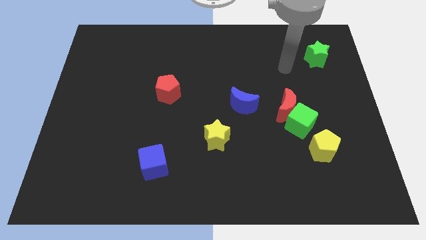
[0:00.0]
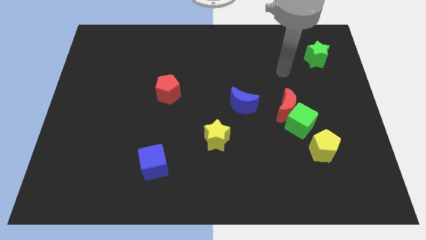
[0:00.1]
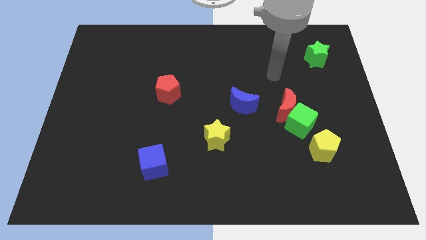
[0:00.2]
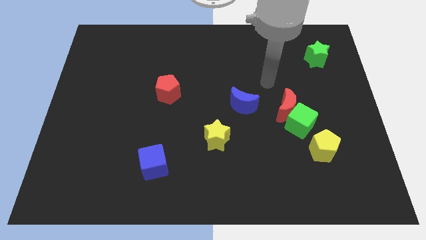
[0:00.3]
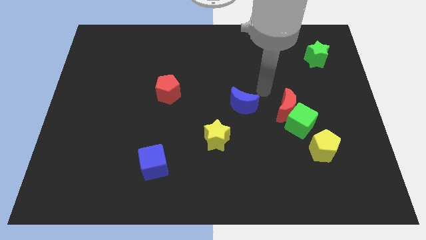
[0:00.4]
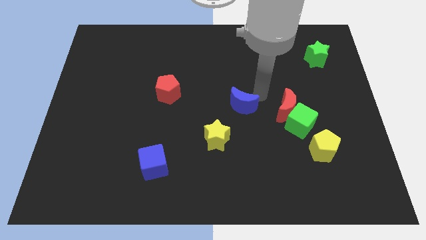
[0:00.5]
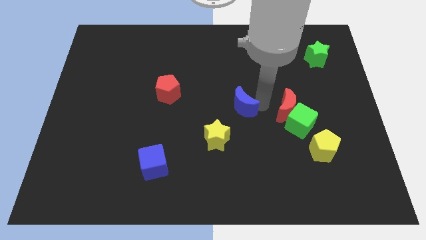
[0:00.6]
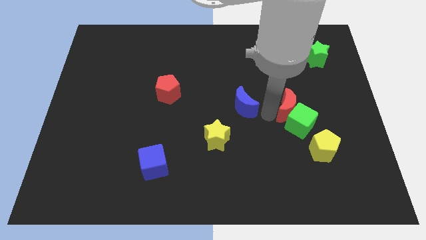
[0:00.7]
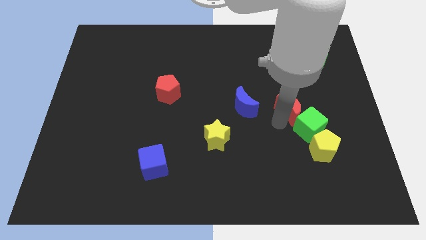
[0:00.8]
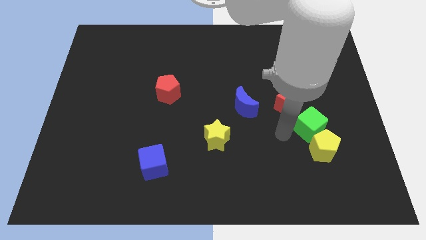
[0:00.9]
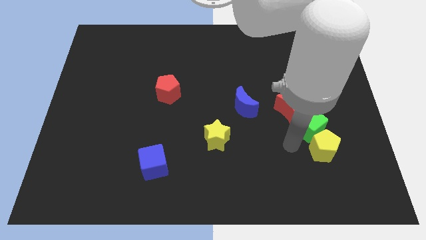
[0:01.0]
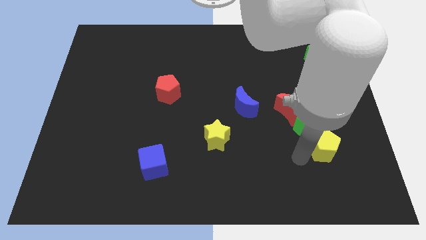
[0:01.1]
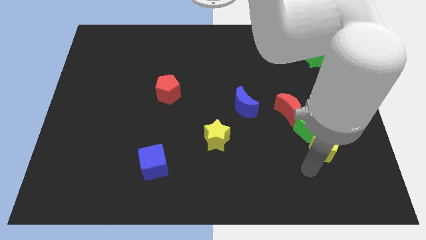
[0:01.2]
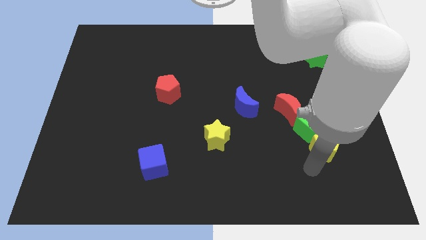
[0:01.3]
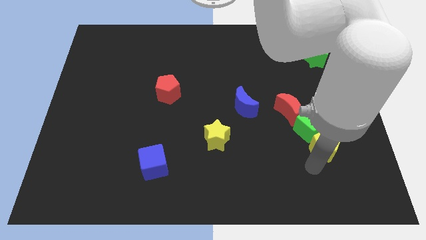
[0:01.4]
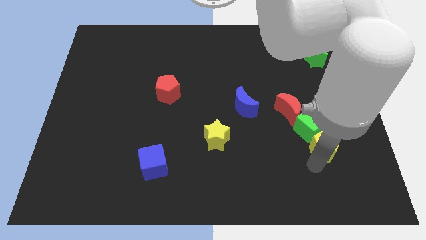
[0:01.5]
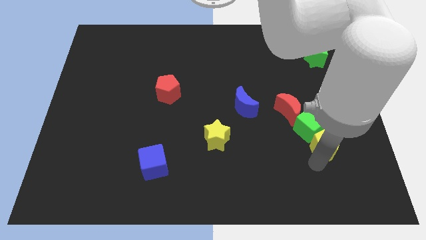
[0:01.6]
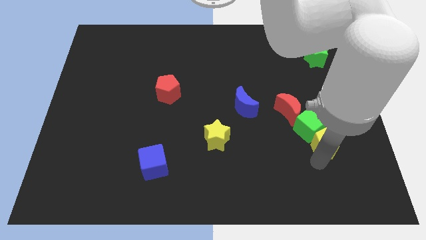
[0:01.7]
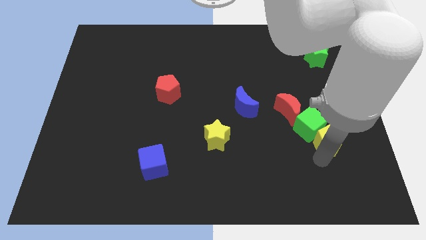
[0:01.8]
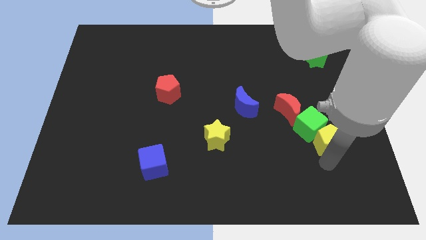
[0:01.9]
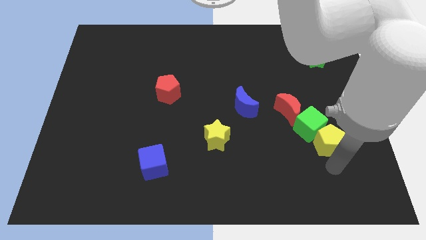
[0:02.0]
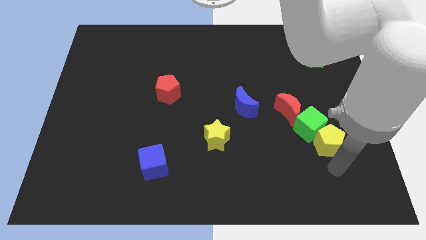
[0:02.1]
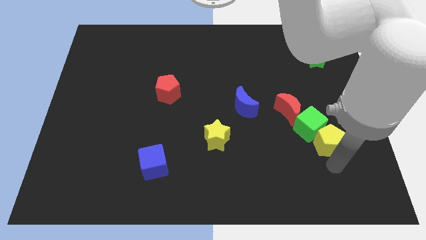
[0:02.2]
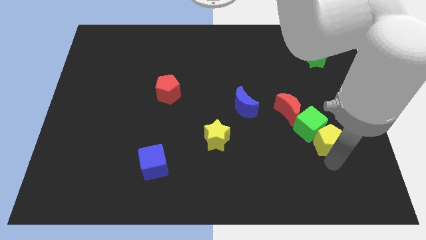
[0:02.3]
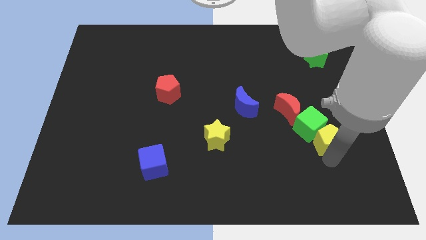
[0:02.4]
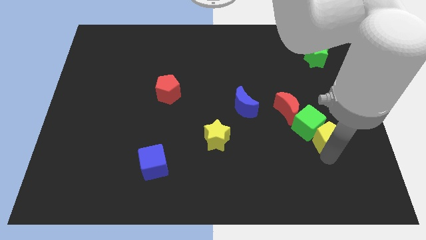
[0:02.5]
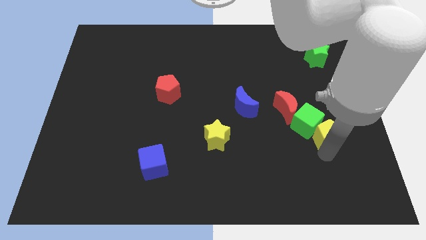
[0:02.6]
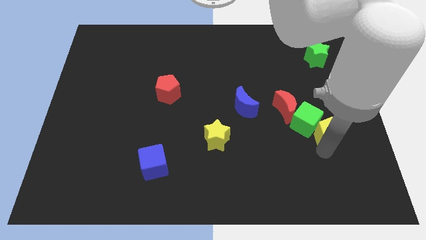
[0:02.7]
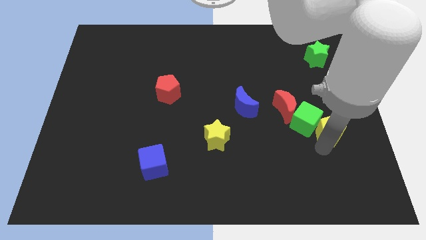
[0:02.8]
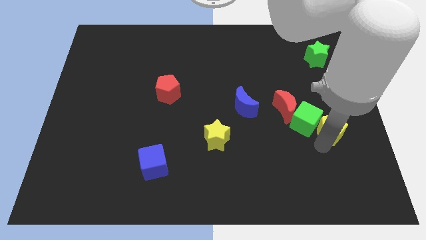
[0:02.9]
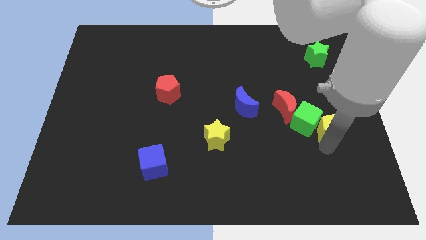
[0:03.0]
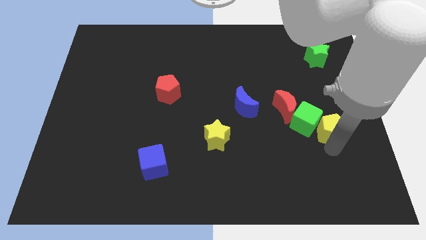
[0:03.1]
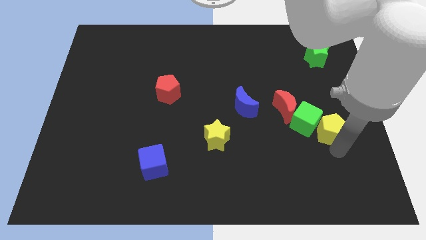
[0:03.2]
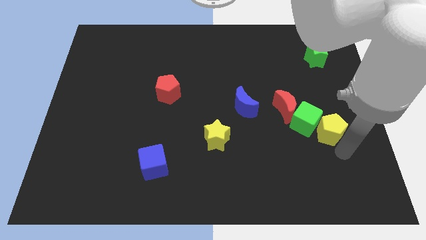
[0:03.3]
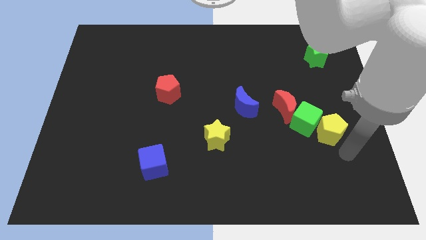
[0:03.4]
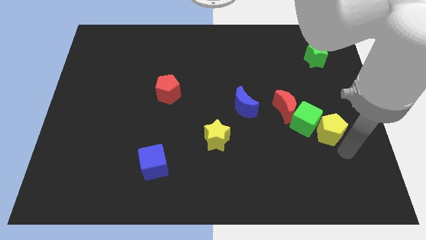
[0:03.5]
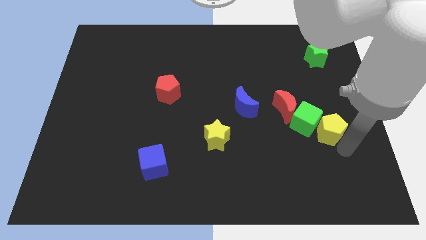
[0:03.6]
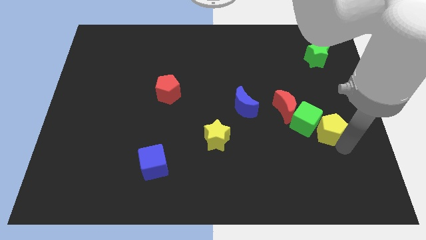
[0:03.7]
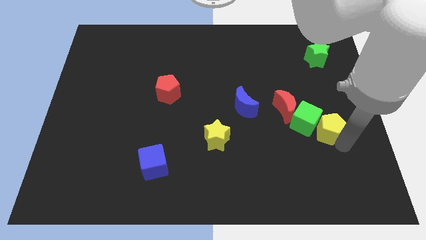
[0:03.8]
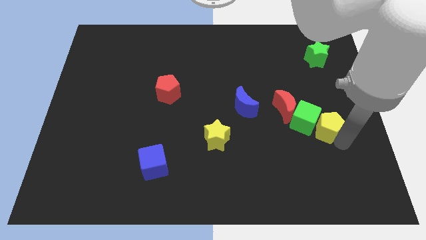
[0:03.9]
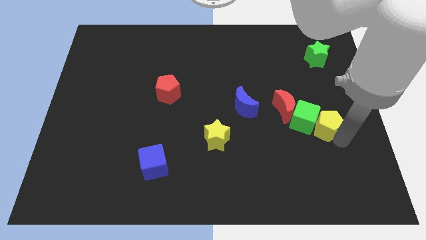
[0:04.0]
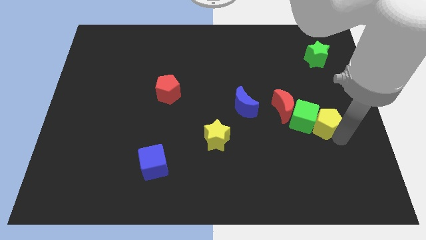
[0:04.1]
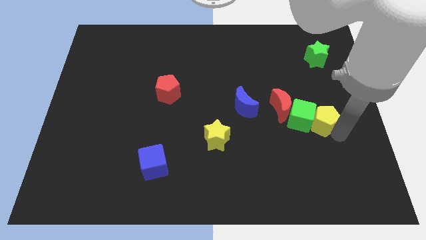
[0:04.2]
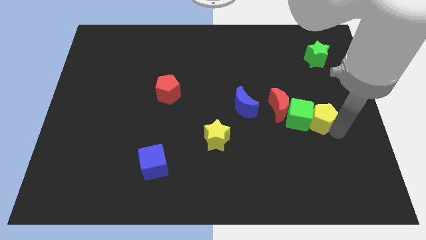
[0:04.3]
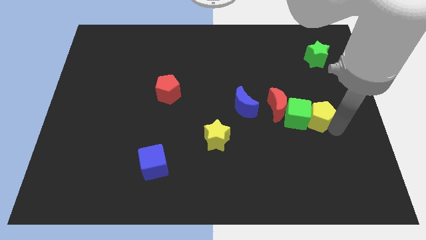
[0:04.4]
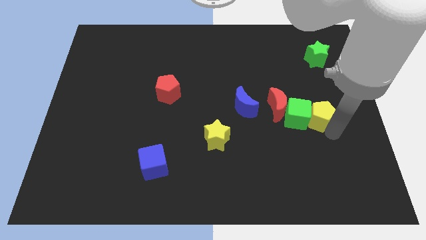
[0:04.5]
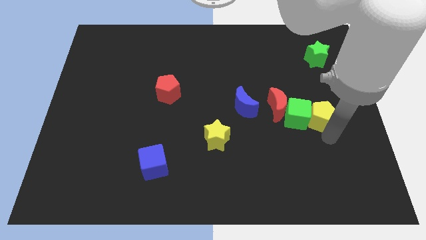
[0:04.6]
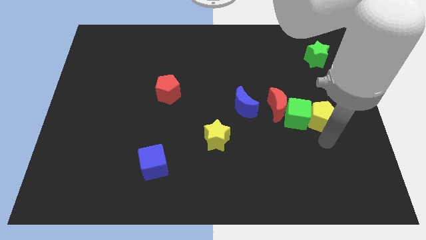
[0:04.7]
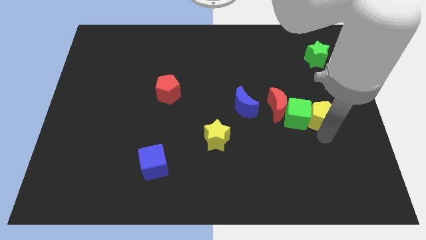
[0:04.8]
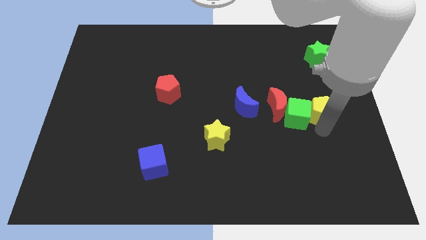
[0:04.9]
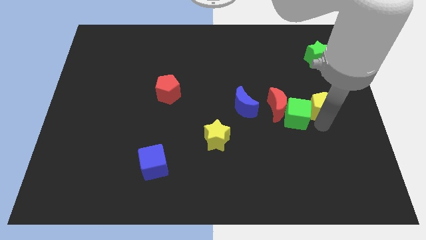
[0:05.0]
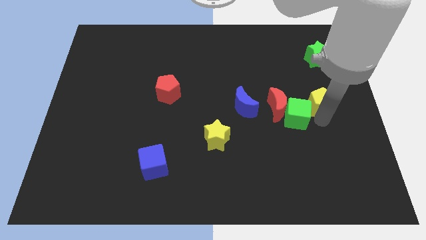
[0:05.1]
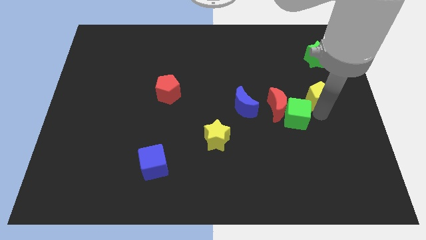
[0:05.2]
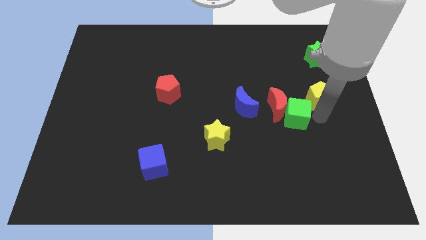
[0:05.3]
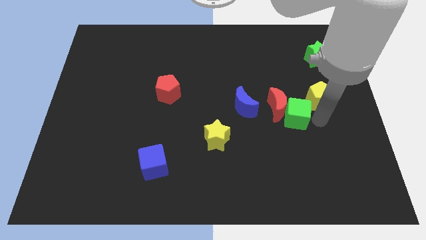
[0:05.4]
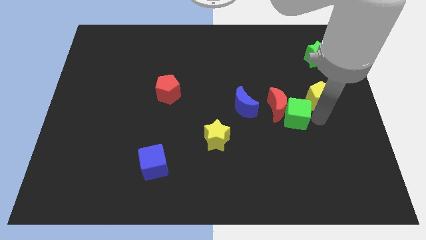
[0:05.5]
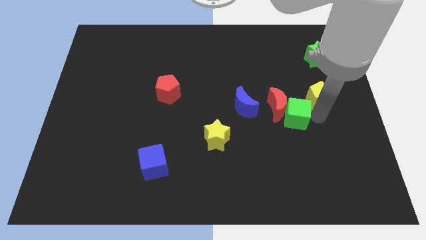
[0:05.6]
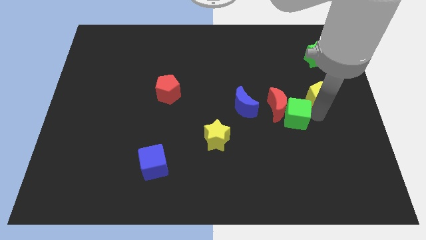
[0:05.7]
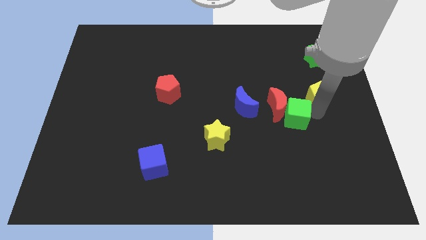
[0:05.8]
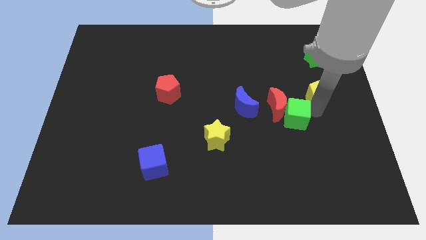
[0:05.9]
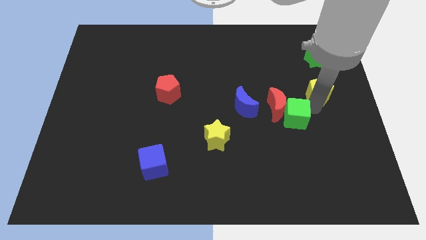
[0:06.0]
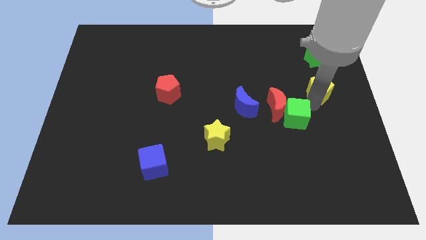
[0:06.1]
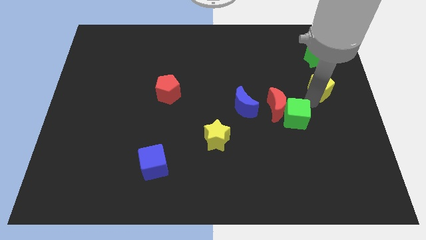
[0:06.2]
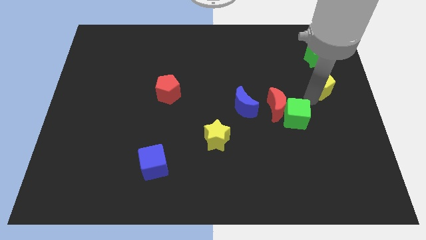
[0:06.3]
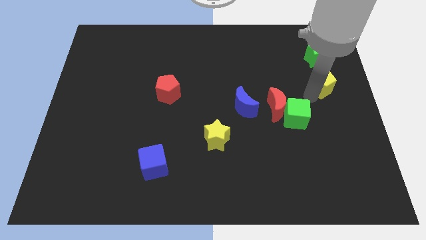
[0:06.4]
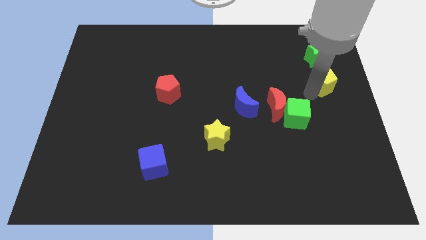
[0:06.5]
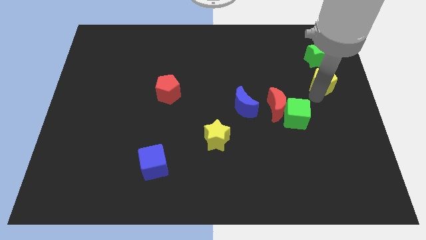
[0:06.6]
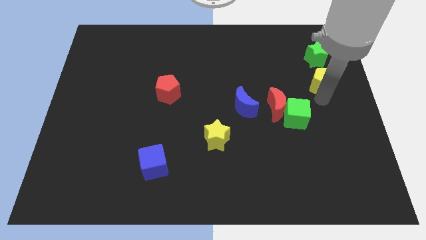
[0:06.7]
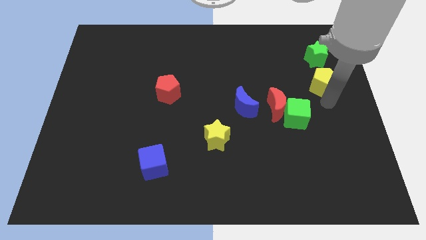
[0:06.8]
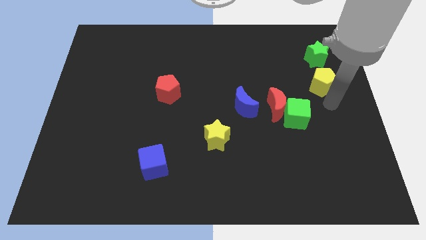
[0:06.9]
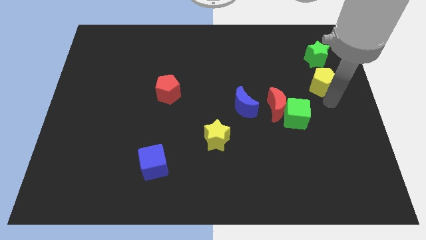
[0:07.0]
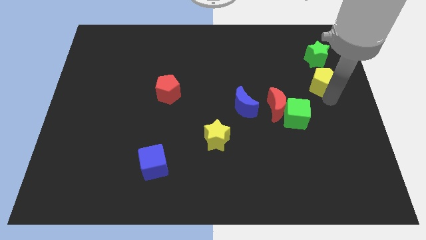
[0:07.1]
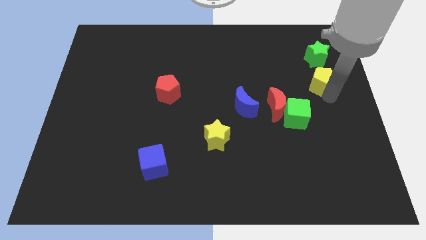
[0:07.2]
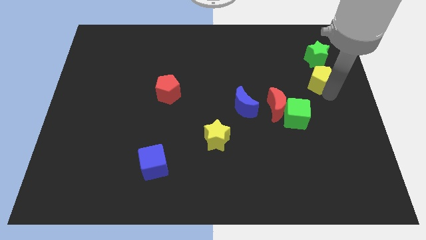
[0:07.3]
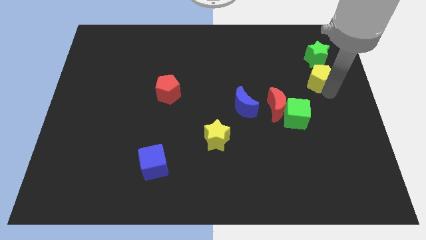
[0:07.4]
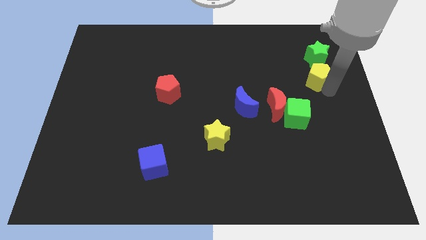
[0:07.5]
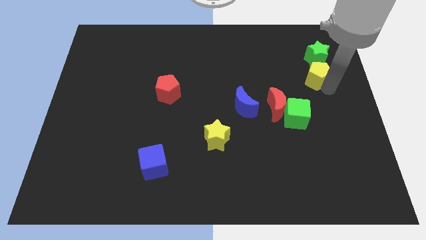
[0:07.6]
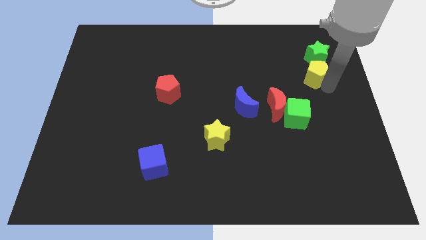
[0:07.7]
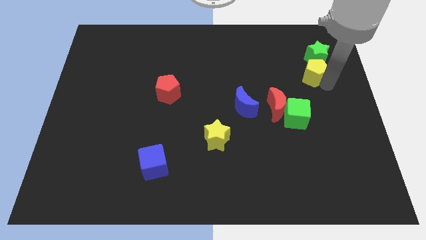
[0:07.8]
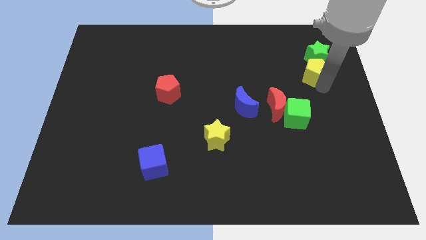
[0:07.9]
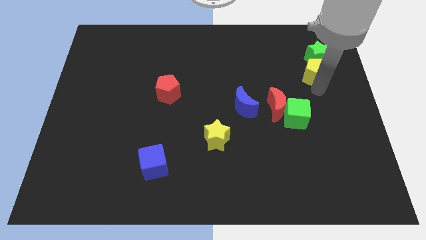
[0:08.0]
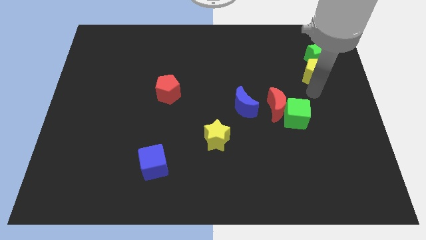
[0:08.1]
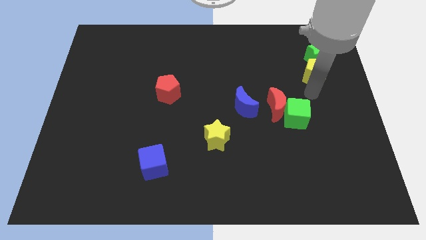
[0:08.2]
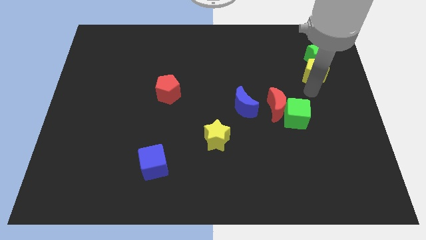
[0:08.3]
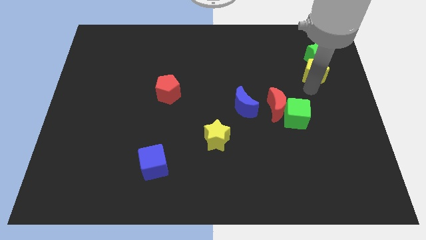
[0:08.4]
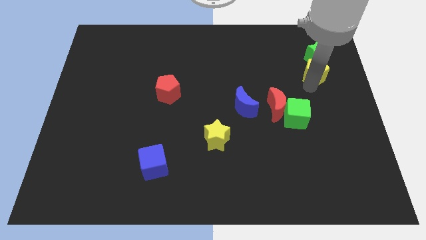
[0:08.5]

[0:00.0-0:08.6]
put the yellow pentagon next to the green star
